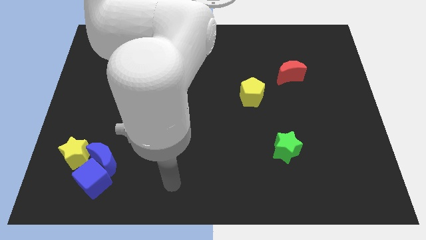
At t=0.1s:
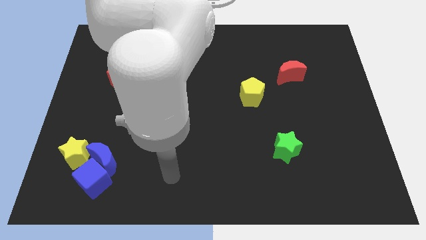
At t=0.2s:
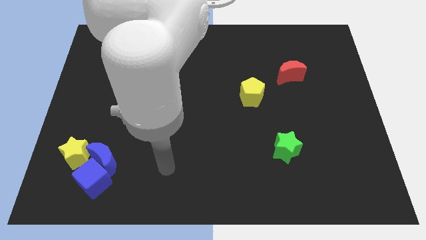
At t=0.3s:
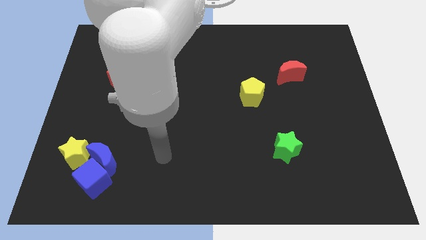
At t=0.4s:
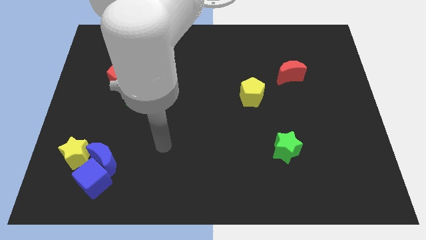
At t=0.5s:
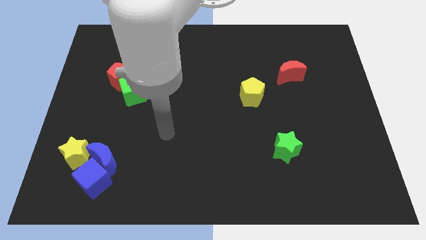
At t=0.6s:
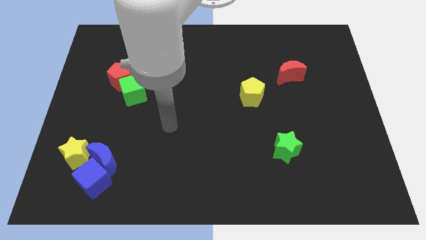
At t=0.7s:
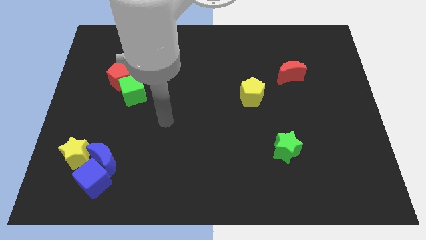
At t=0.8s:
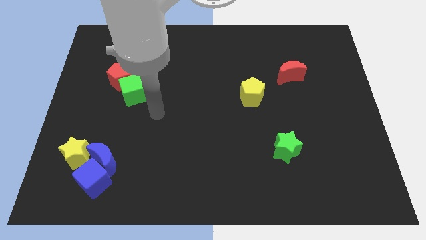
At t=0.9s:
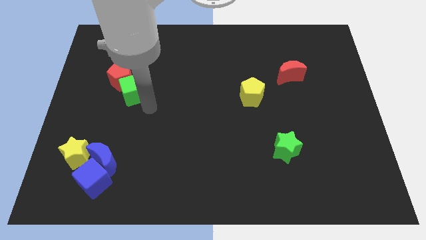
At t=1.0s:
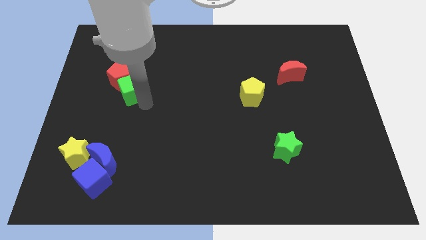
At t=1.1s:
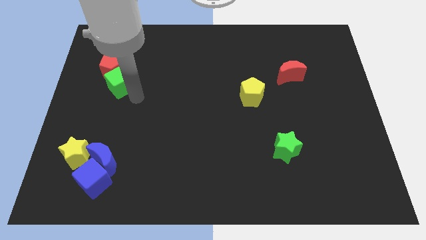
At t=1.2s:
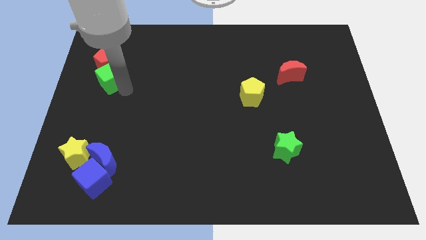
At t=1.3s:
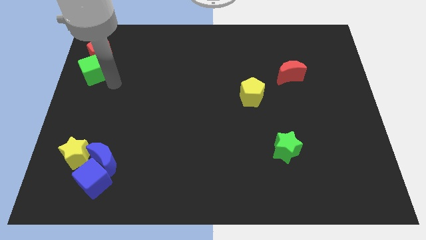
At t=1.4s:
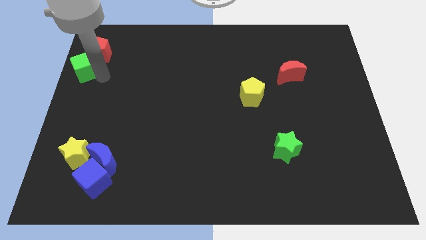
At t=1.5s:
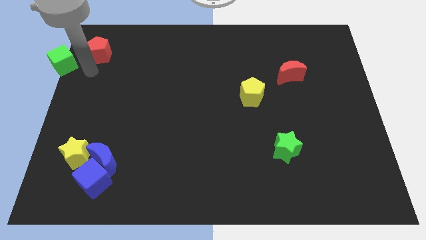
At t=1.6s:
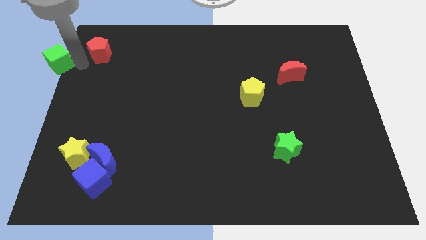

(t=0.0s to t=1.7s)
pull the red pentagon apart from the green cube

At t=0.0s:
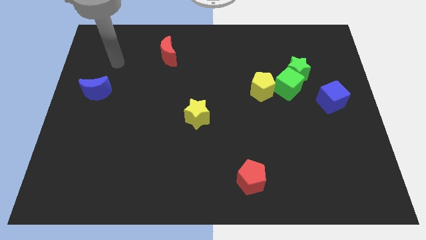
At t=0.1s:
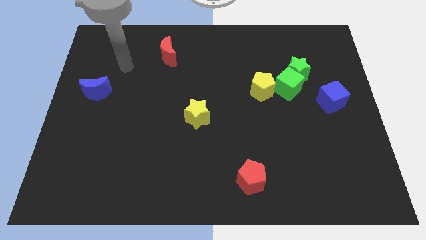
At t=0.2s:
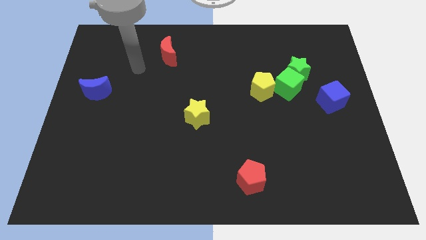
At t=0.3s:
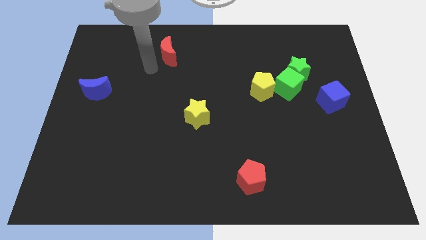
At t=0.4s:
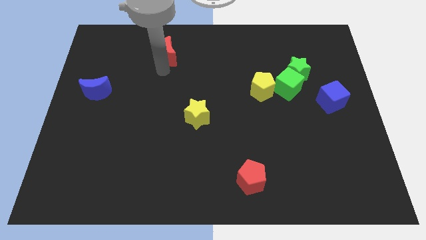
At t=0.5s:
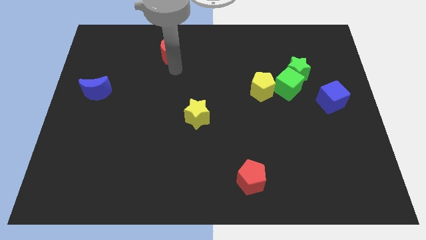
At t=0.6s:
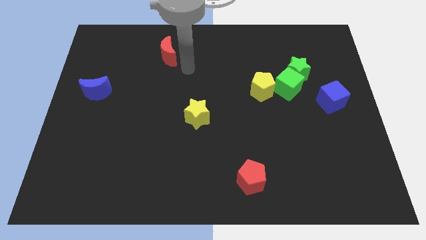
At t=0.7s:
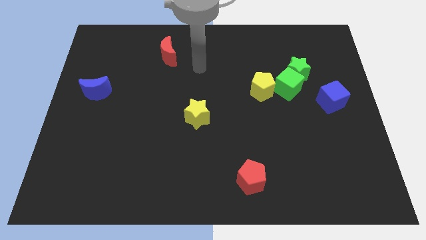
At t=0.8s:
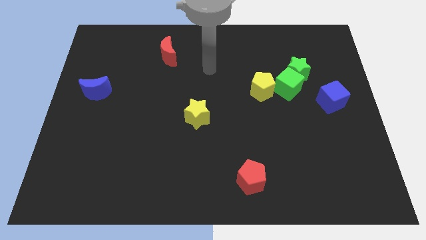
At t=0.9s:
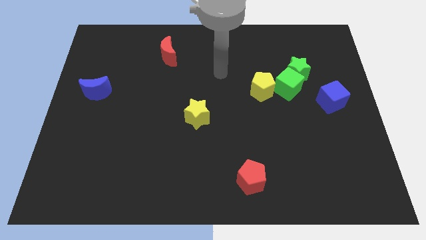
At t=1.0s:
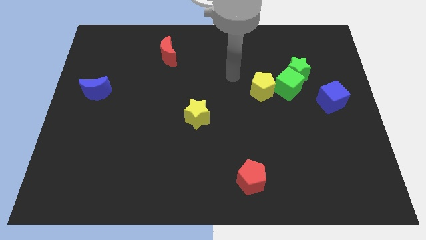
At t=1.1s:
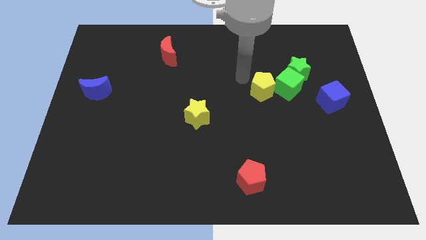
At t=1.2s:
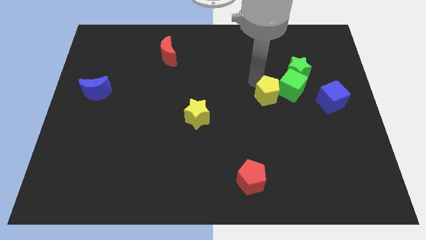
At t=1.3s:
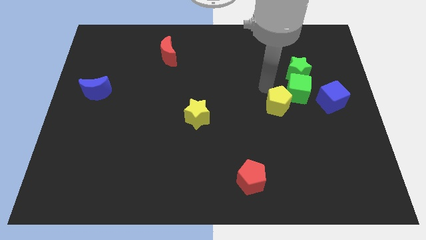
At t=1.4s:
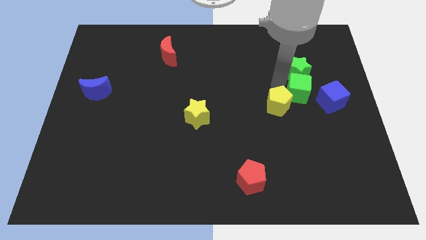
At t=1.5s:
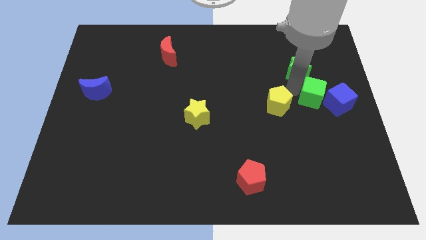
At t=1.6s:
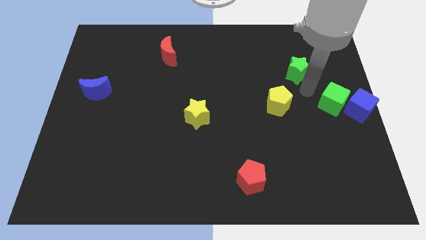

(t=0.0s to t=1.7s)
move the green star away from the green cube

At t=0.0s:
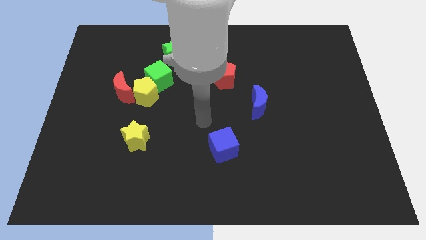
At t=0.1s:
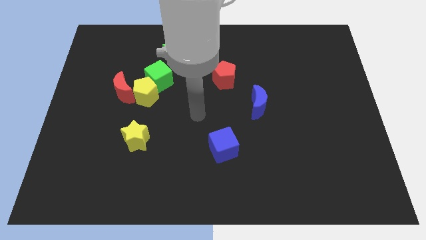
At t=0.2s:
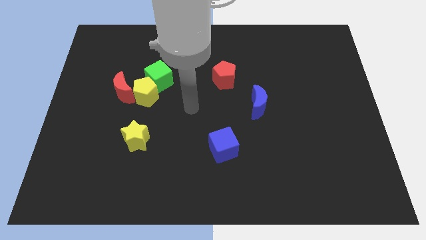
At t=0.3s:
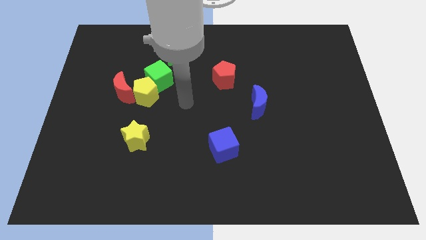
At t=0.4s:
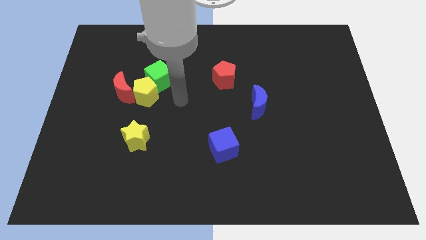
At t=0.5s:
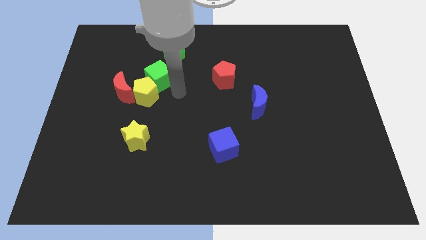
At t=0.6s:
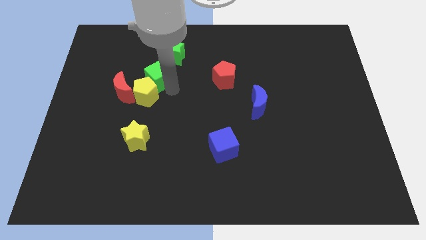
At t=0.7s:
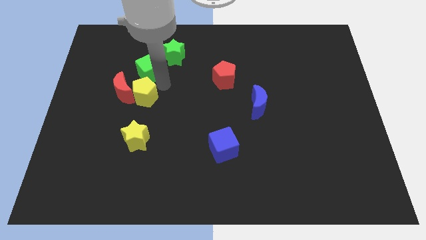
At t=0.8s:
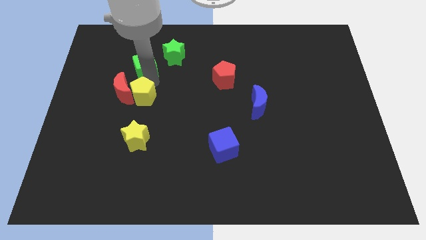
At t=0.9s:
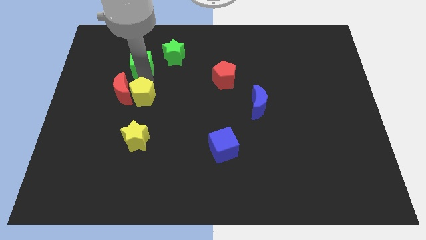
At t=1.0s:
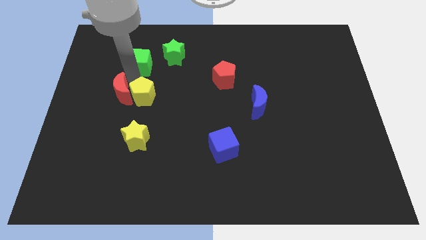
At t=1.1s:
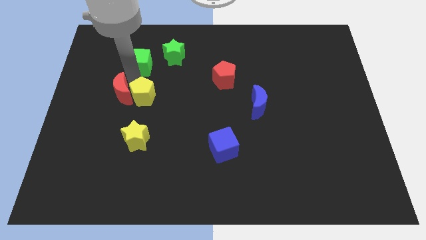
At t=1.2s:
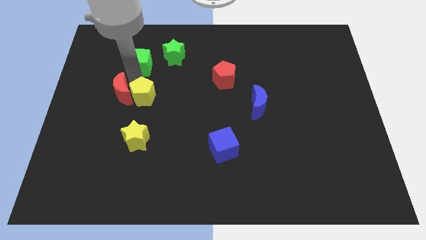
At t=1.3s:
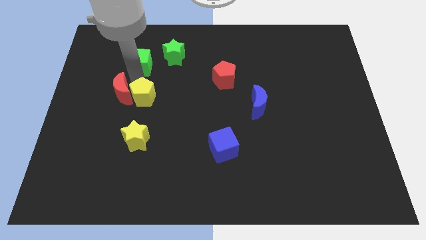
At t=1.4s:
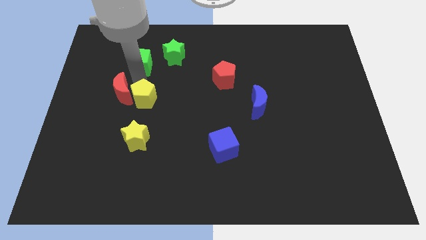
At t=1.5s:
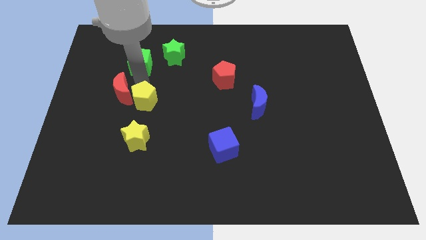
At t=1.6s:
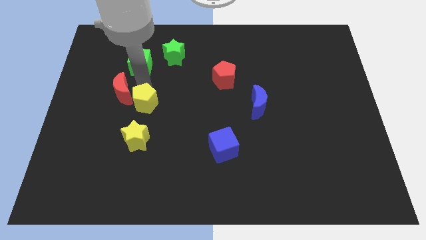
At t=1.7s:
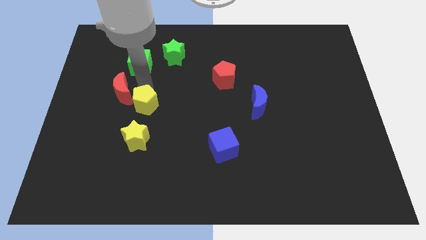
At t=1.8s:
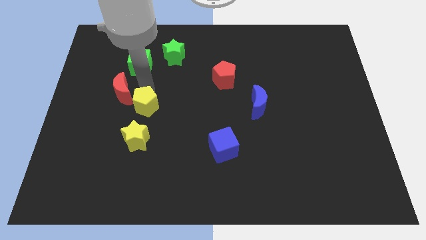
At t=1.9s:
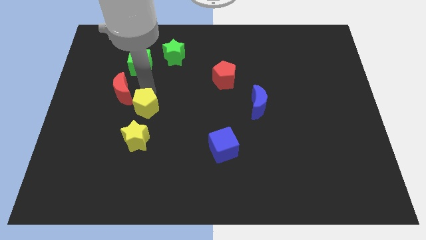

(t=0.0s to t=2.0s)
move the yellow pentagon away from the green cube and red moon

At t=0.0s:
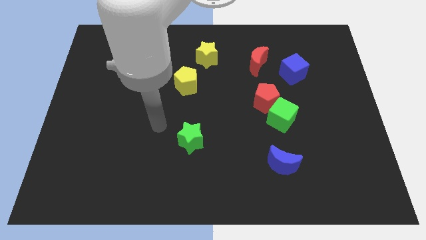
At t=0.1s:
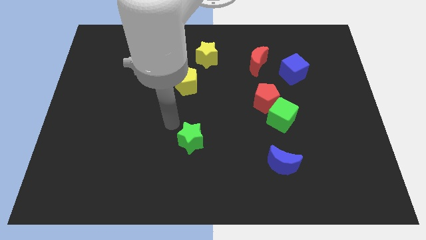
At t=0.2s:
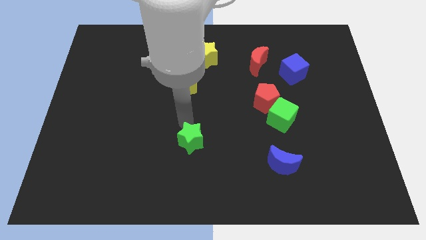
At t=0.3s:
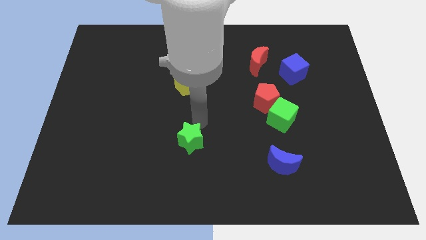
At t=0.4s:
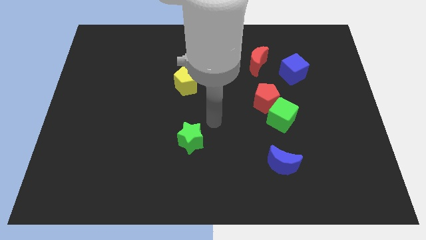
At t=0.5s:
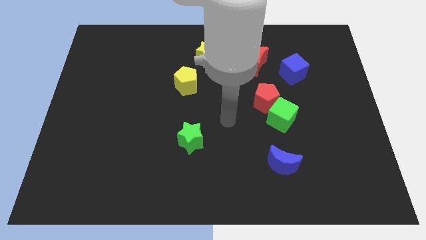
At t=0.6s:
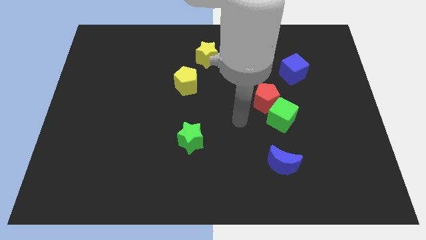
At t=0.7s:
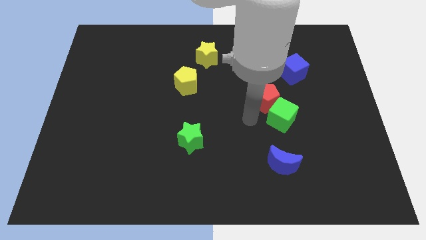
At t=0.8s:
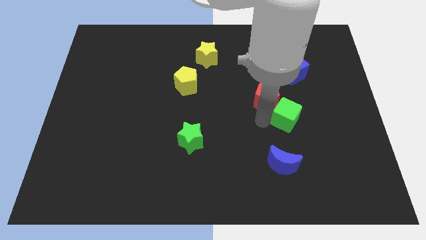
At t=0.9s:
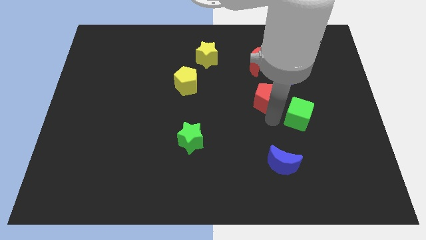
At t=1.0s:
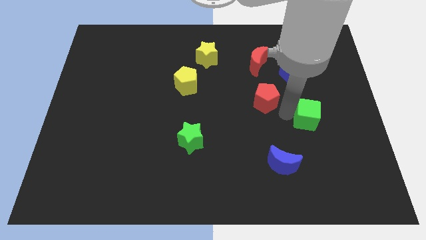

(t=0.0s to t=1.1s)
separate the red pentagon from the green cube

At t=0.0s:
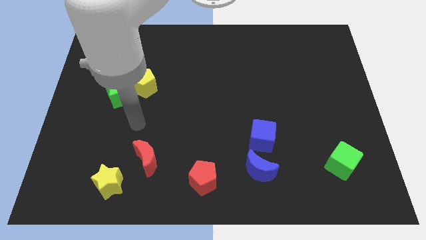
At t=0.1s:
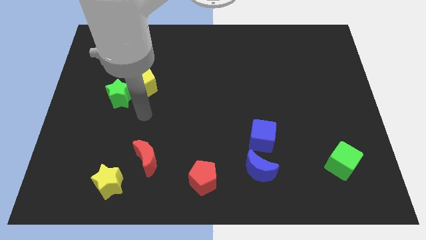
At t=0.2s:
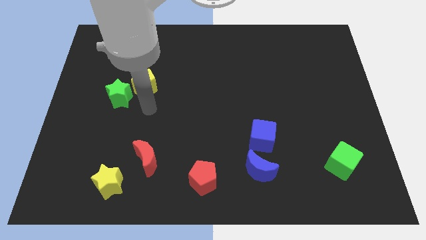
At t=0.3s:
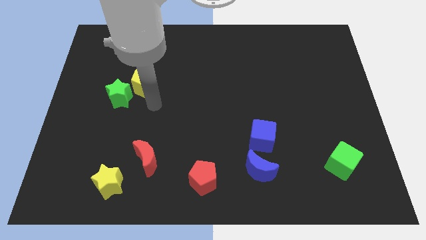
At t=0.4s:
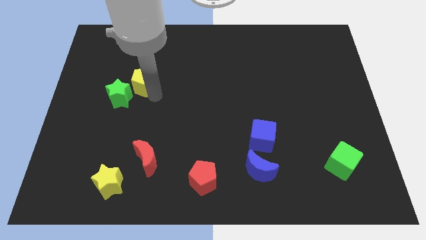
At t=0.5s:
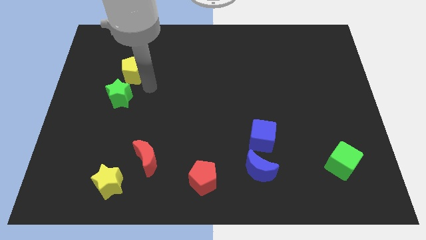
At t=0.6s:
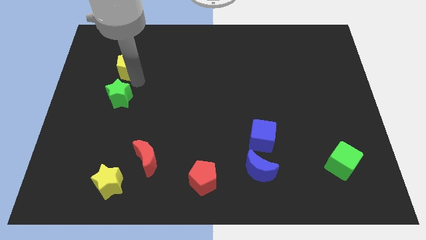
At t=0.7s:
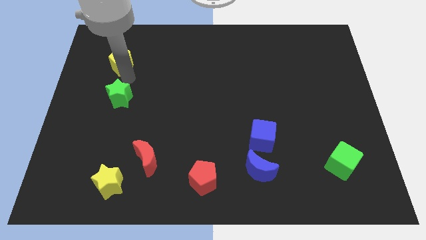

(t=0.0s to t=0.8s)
move the green star away from the yellow pentagon

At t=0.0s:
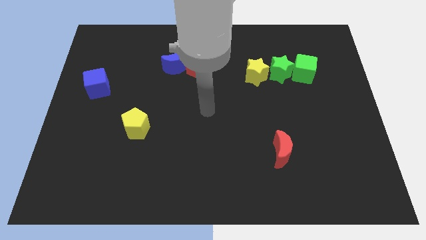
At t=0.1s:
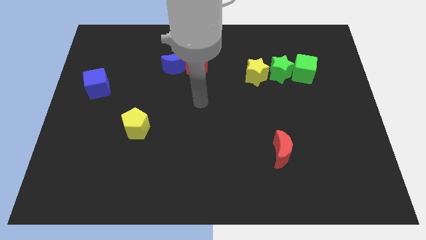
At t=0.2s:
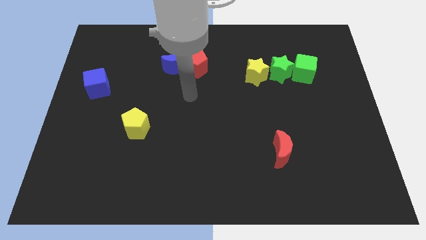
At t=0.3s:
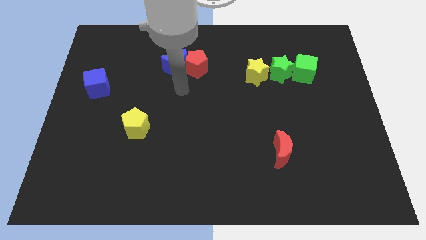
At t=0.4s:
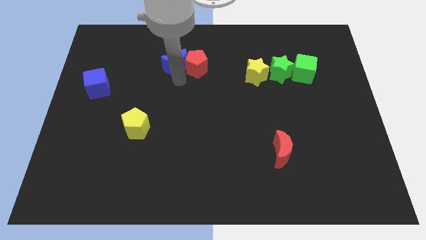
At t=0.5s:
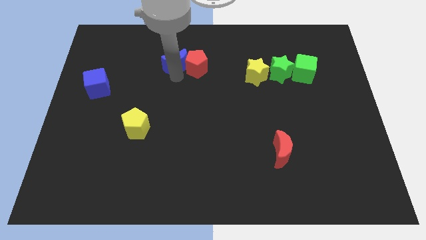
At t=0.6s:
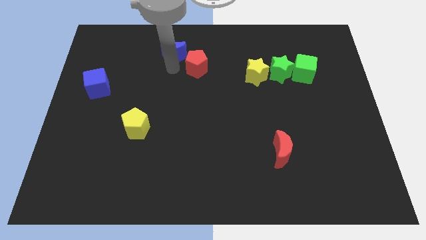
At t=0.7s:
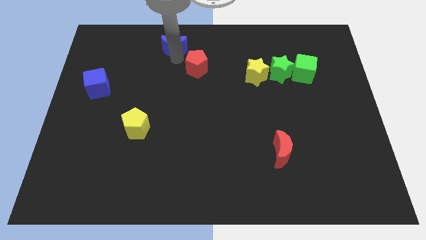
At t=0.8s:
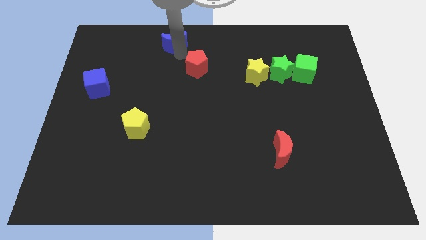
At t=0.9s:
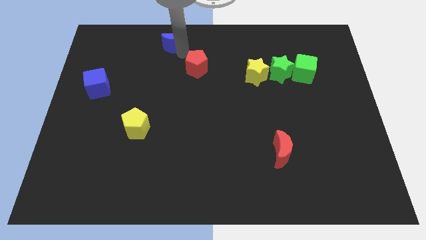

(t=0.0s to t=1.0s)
pull the red pentagon apart from the blue moon

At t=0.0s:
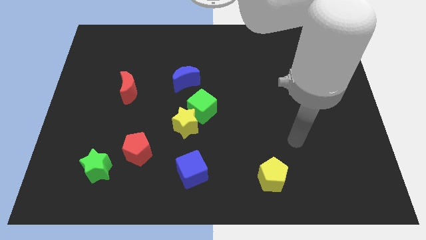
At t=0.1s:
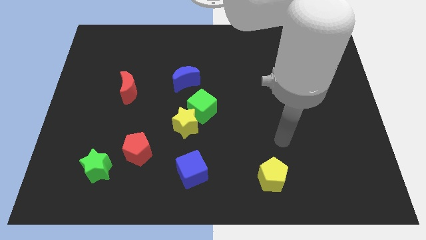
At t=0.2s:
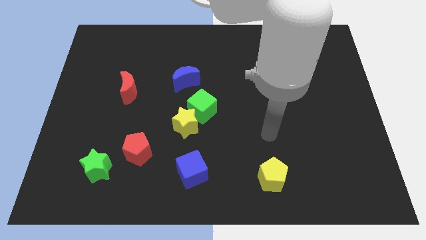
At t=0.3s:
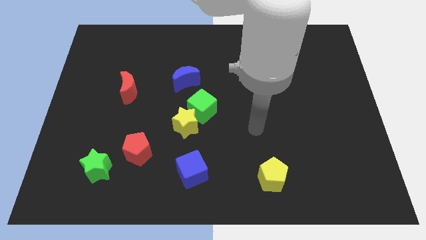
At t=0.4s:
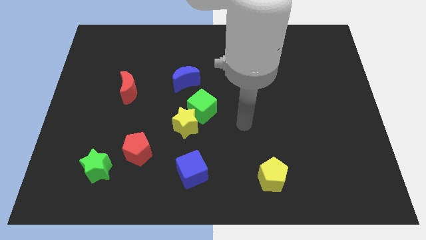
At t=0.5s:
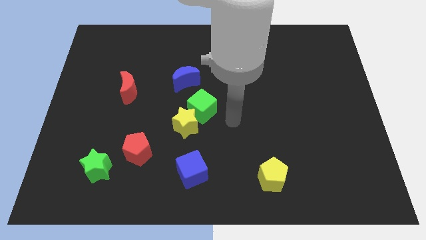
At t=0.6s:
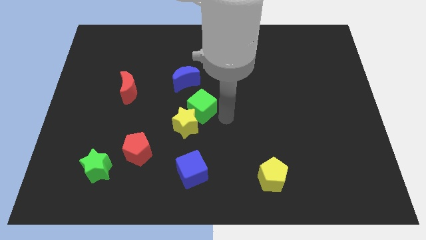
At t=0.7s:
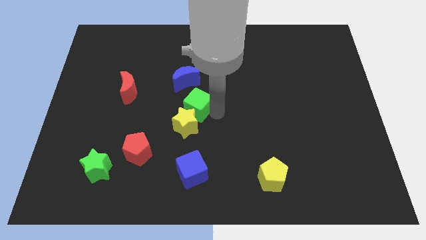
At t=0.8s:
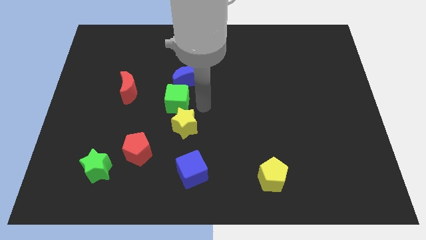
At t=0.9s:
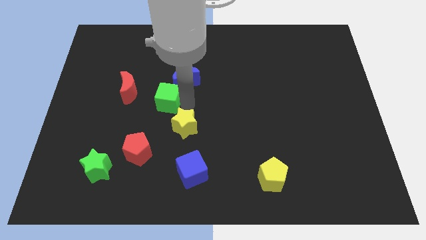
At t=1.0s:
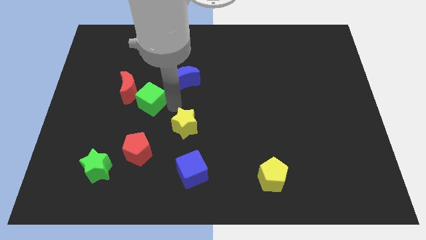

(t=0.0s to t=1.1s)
pull the yellow star apart from the green cube
